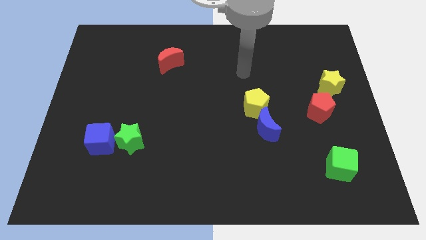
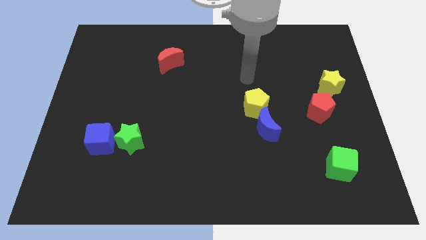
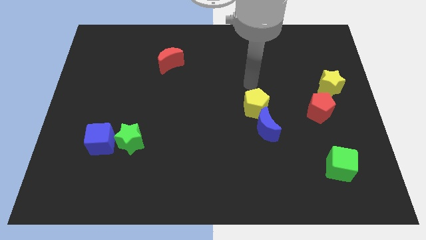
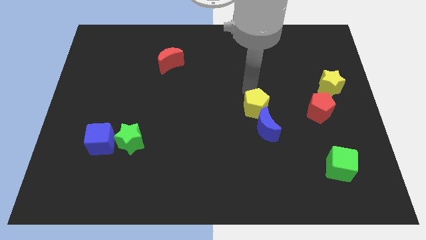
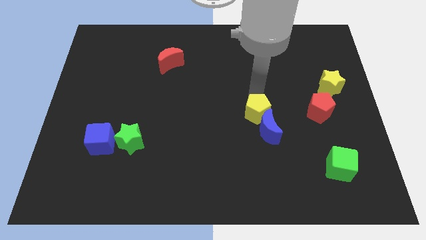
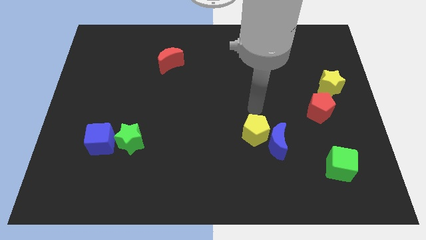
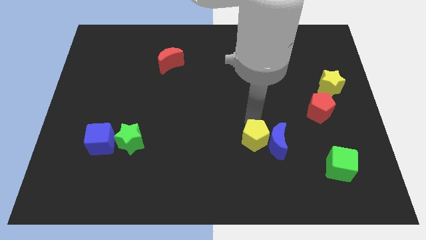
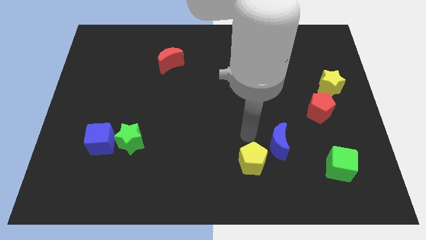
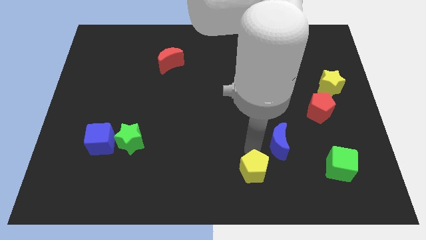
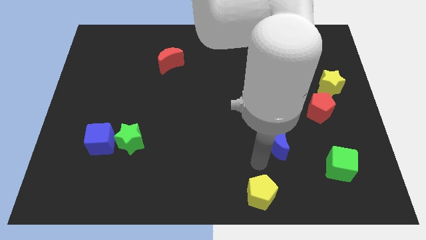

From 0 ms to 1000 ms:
pull the blue moon apart from the yellow pentagon

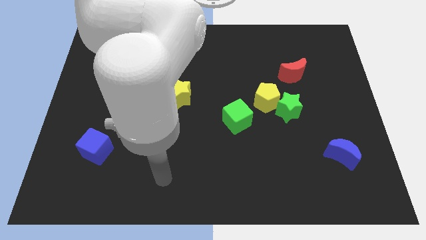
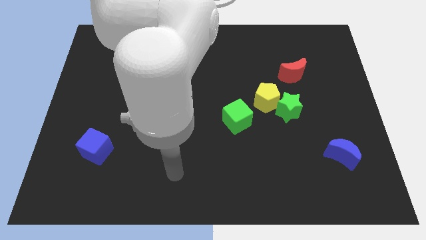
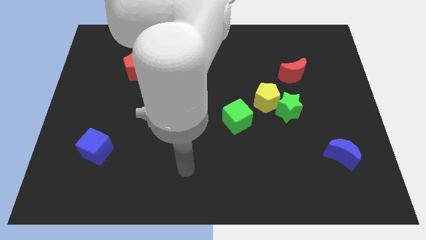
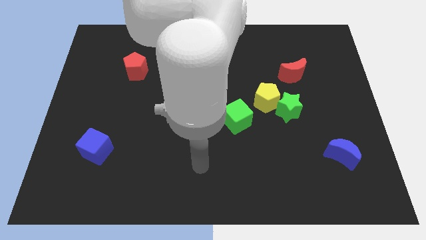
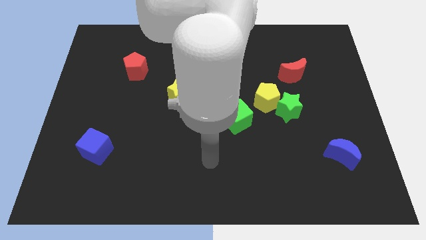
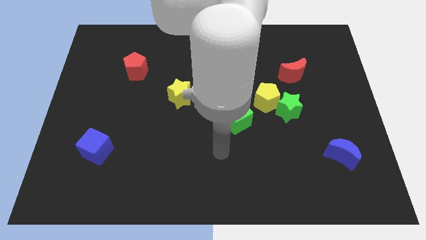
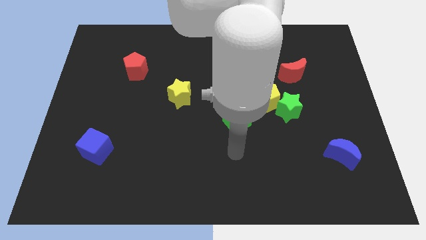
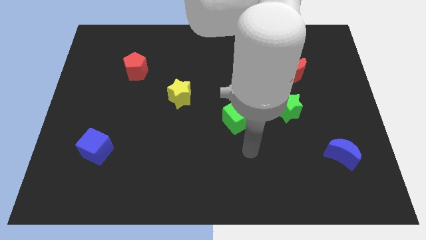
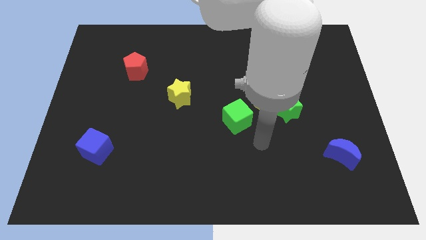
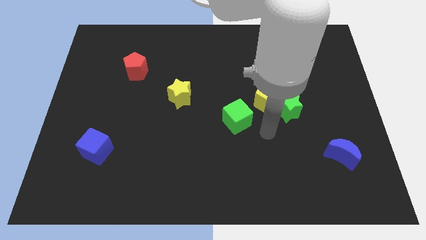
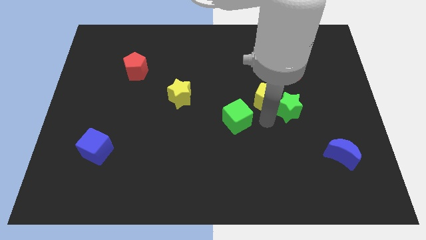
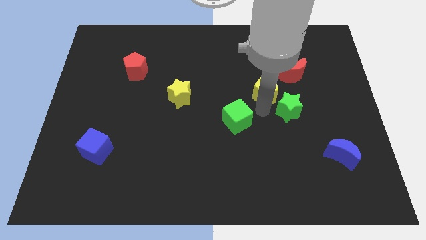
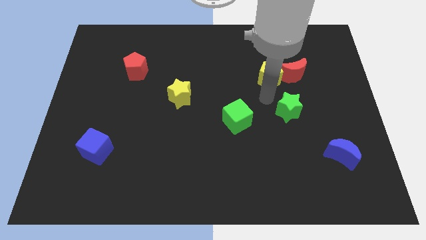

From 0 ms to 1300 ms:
separate the green star from the yellow pentagon

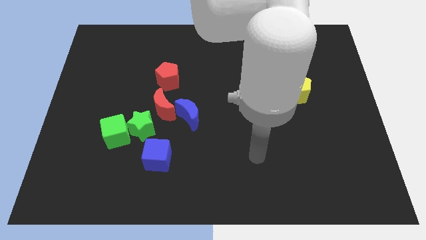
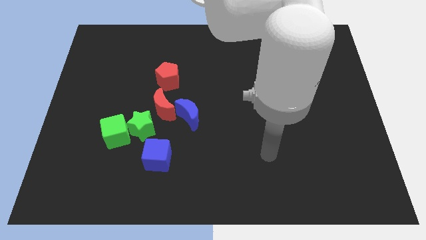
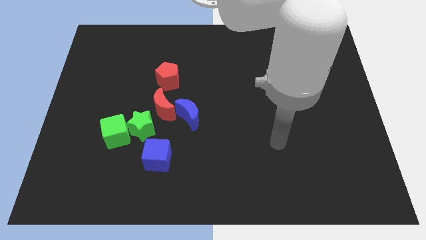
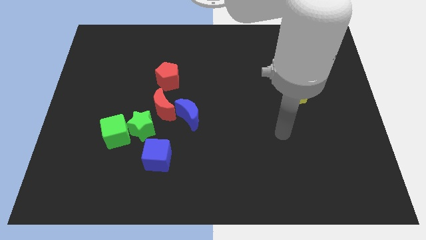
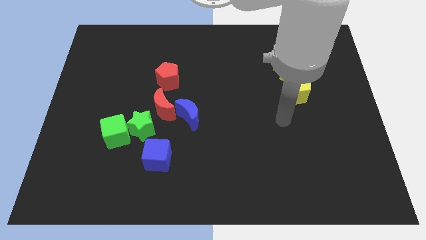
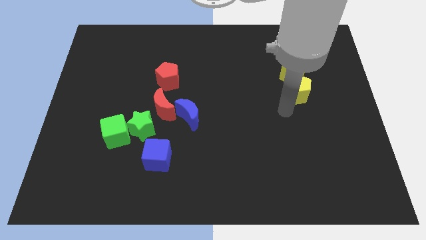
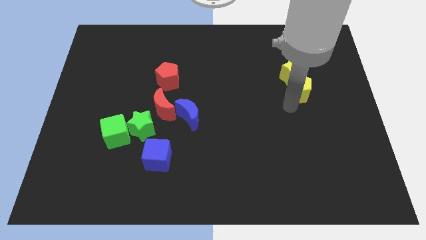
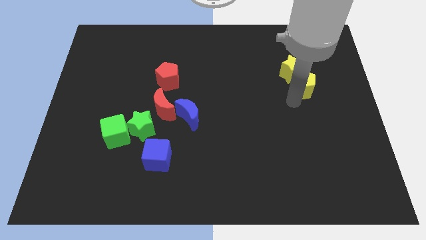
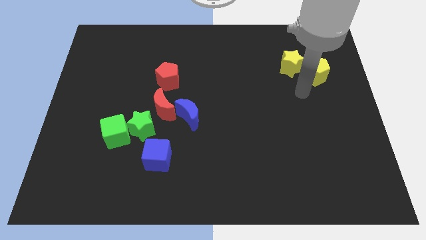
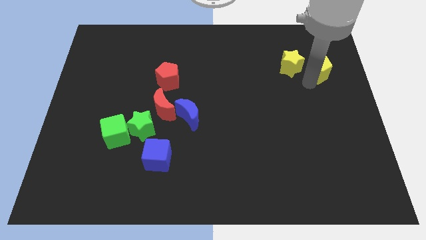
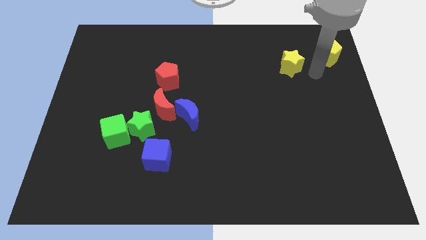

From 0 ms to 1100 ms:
separate the yellow star from the yellow pentagon

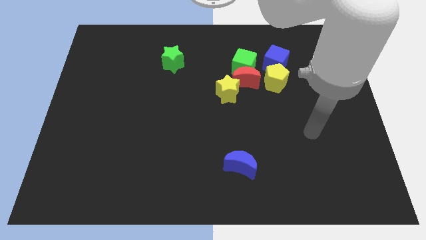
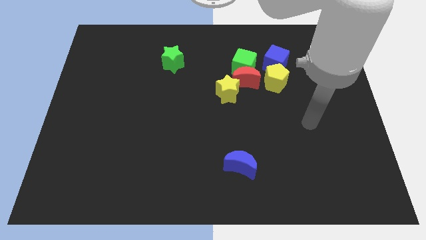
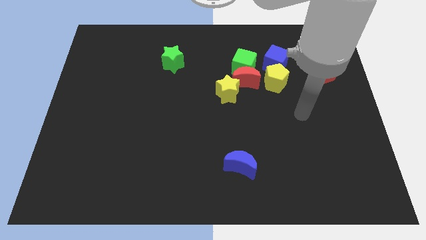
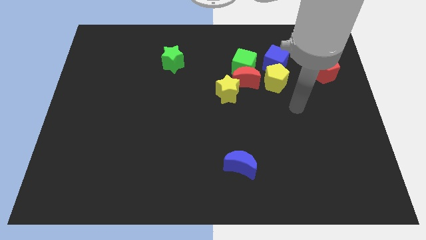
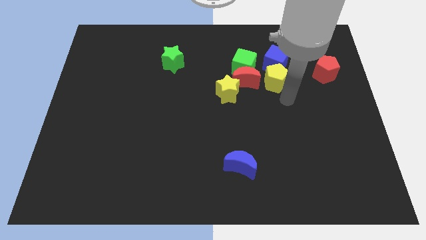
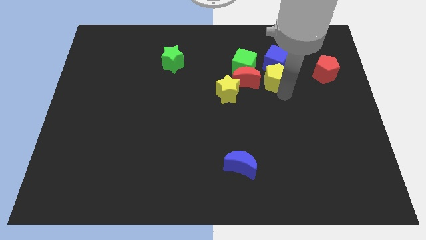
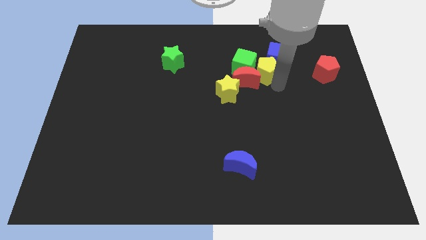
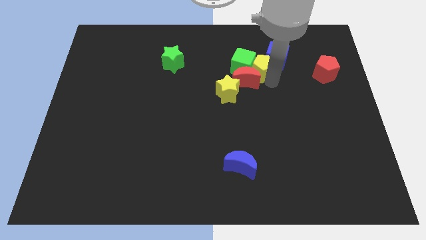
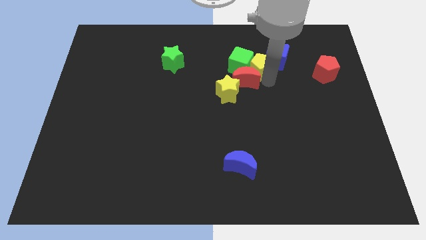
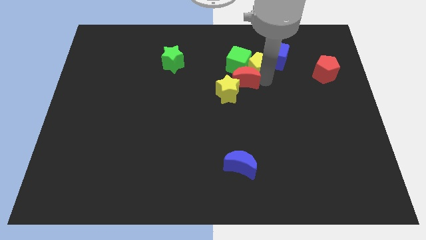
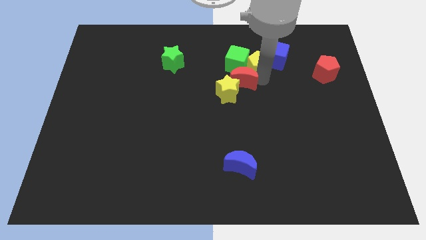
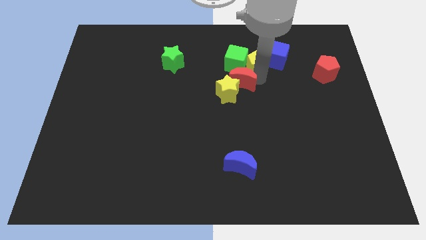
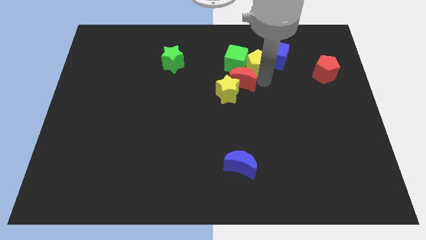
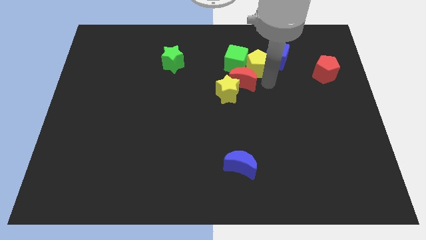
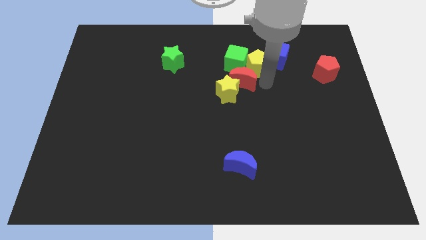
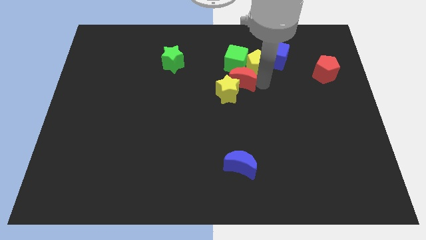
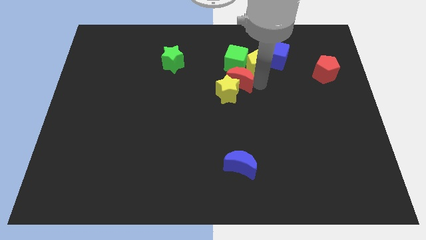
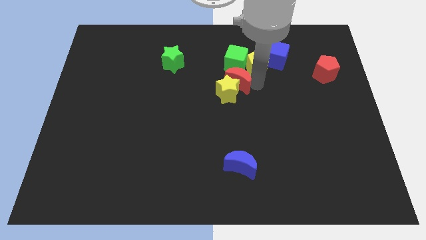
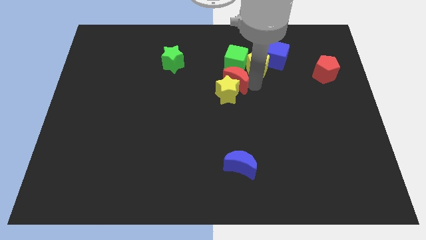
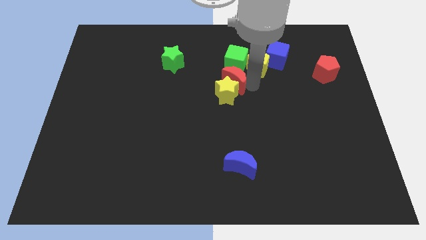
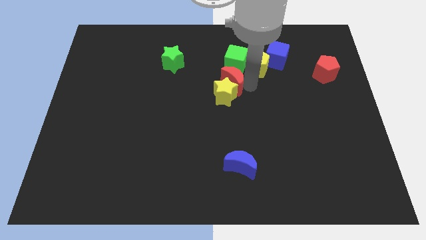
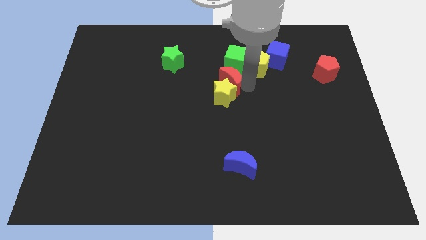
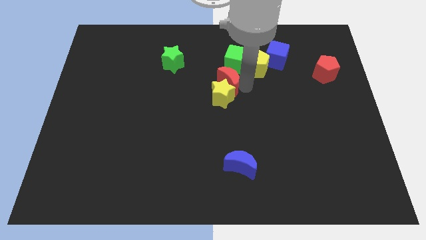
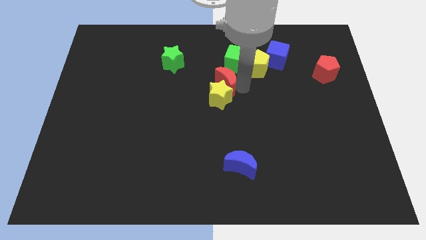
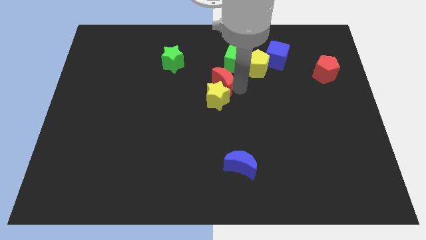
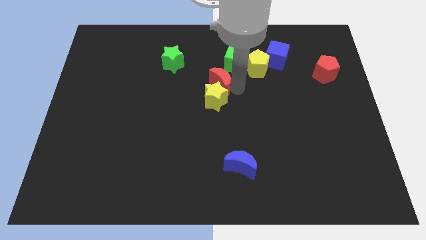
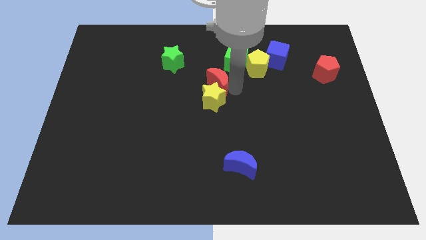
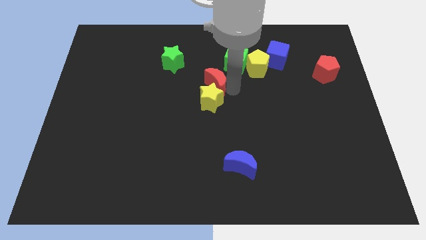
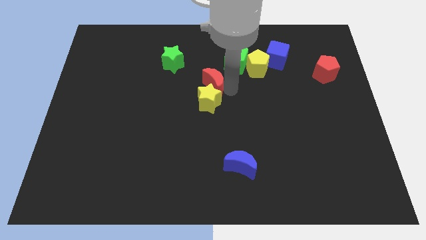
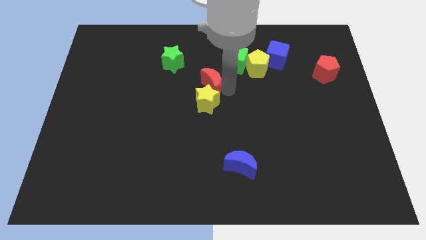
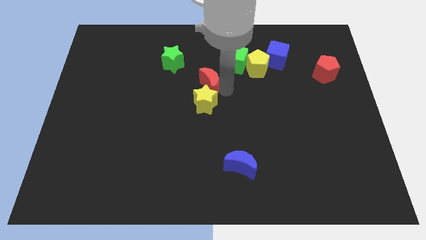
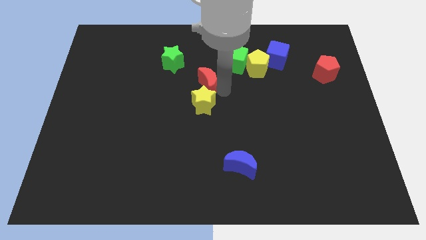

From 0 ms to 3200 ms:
pull the red moon apart from the group

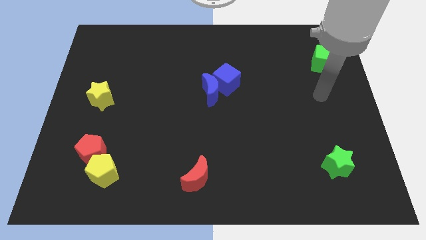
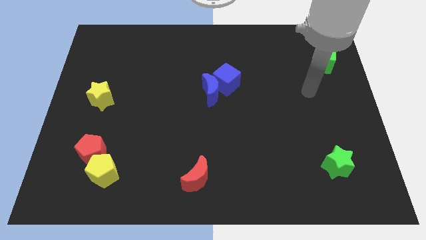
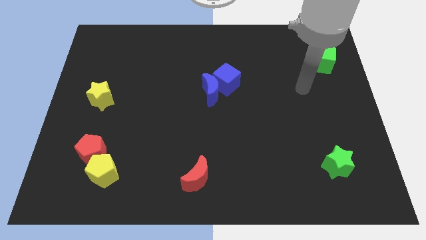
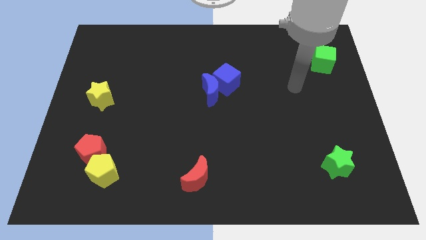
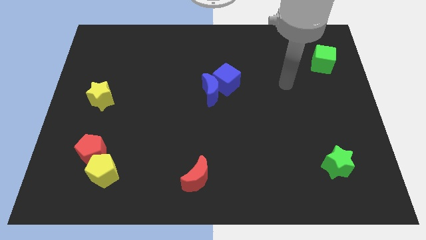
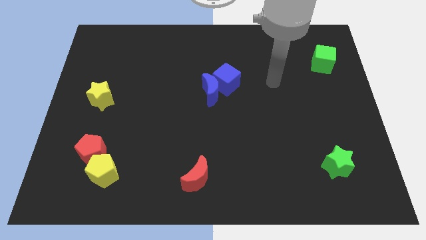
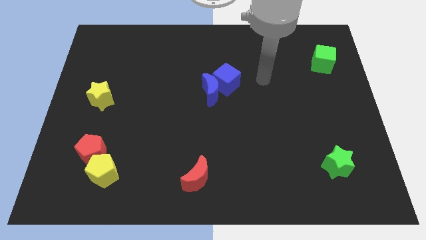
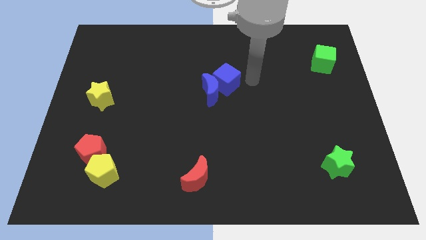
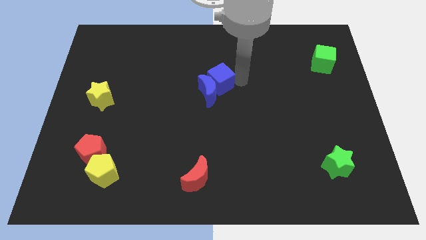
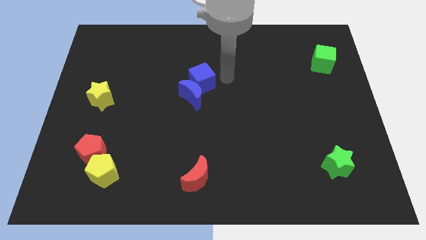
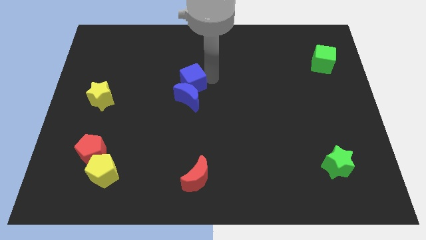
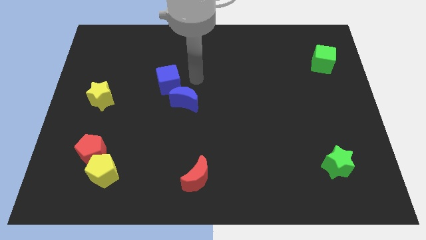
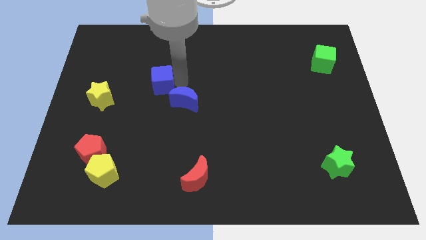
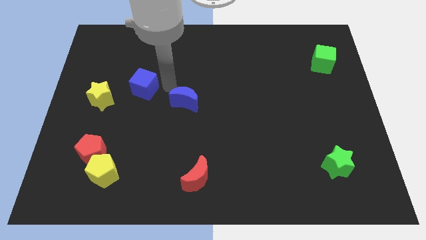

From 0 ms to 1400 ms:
pull the blue moon apart from the blue cube

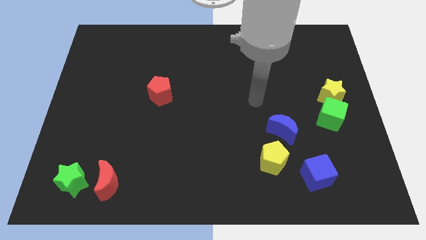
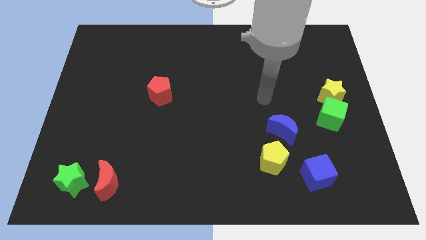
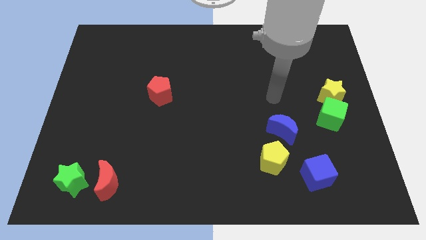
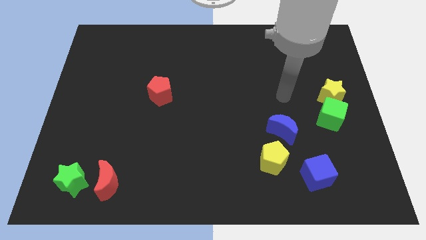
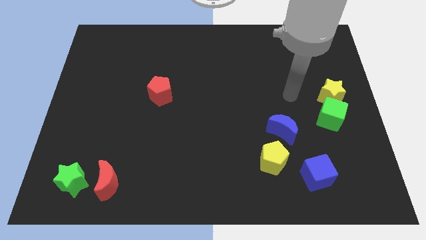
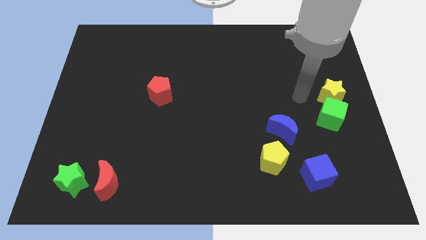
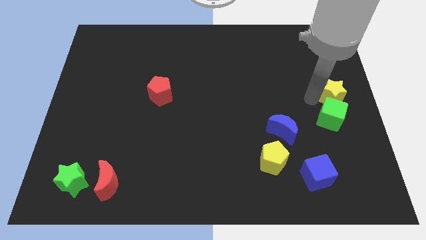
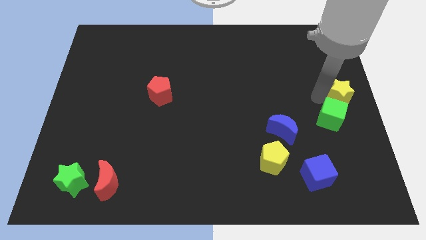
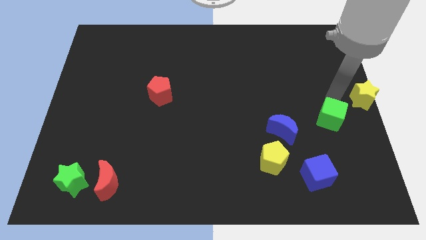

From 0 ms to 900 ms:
pull the green cube apart from the yellow star

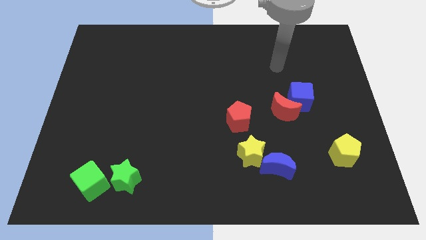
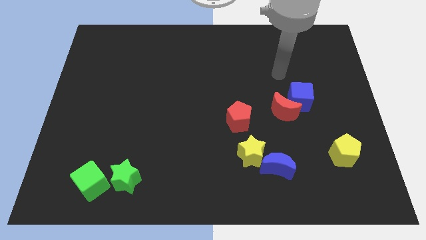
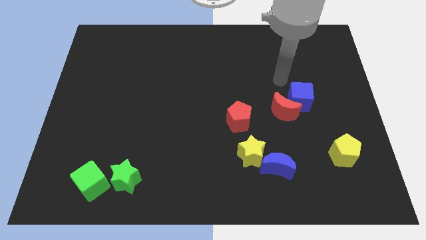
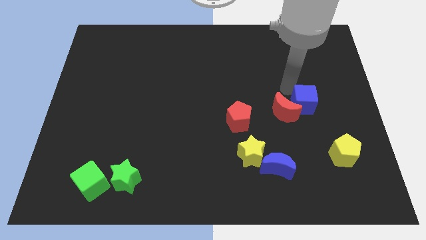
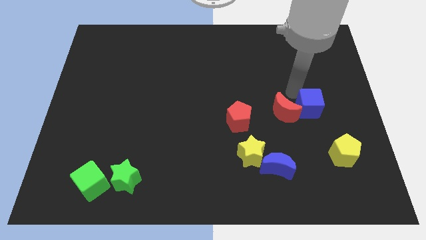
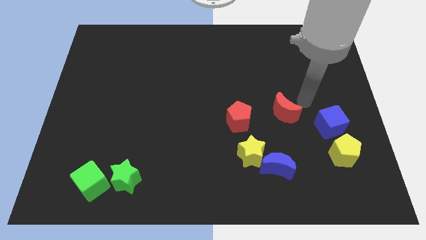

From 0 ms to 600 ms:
separate the red moon from the blue cube
